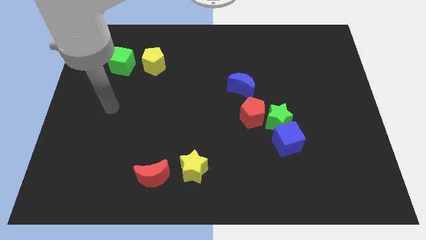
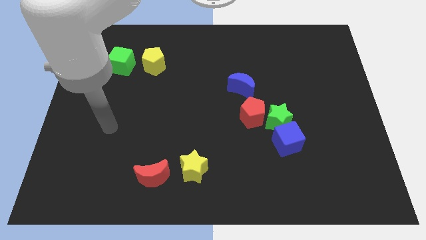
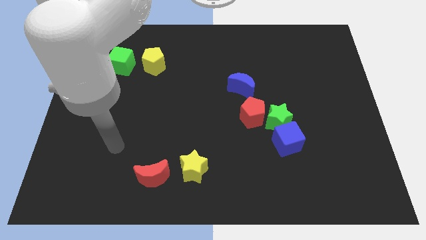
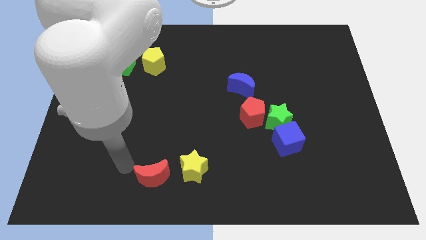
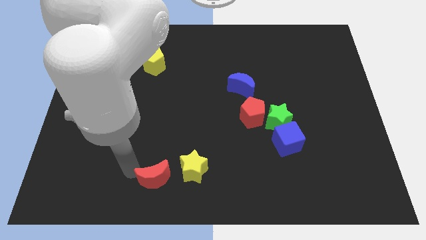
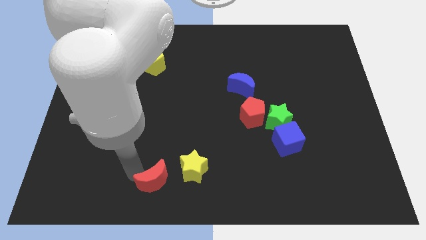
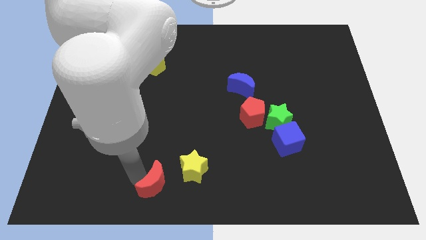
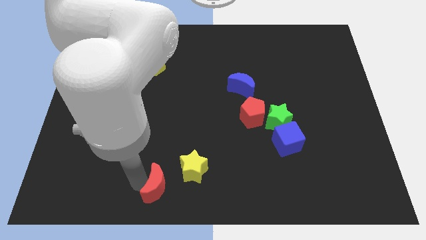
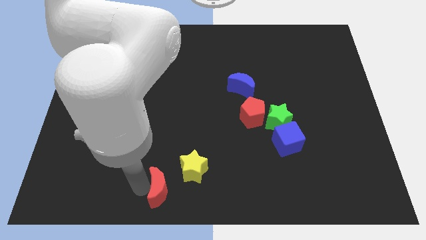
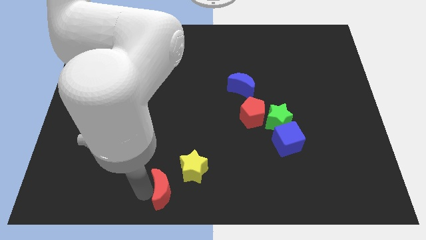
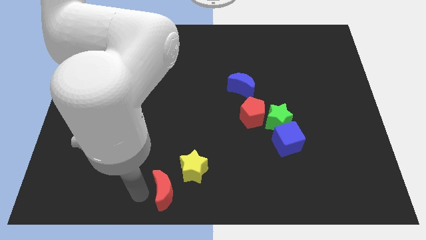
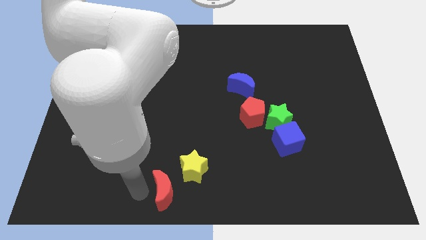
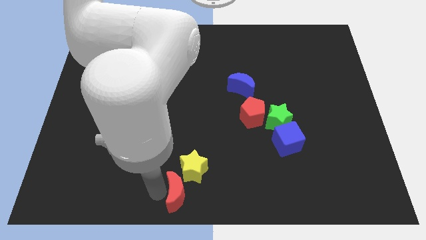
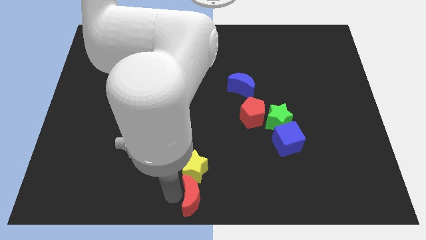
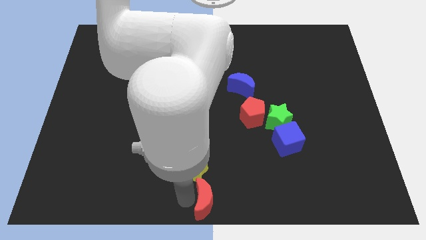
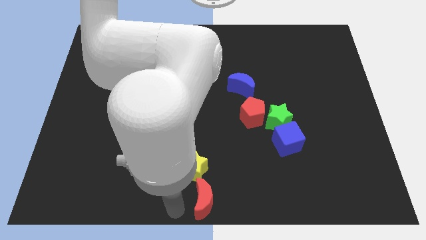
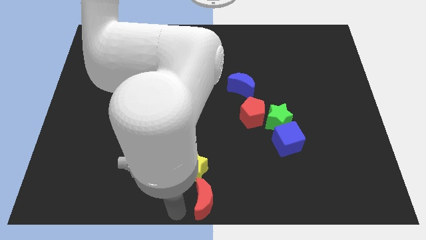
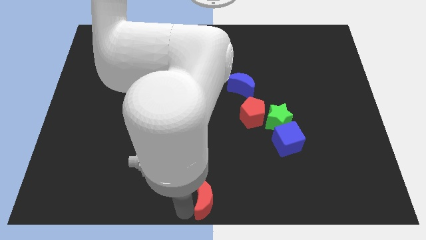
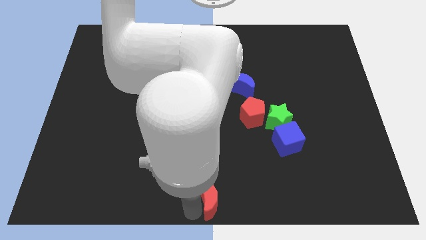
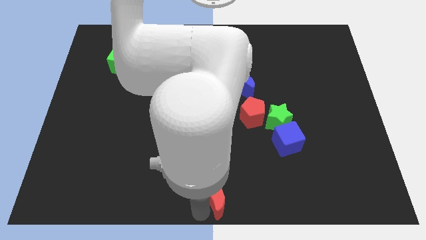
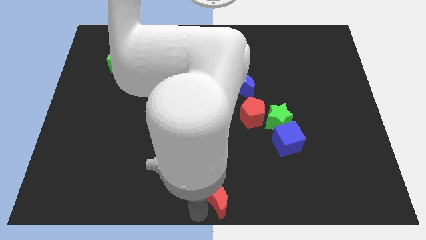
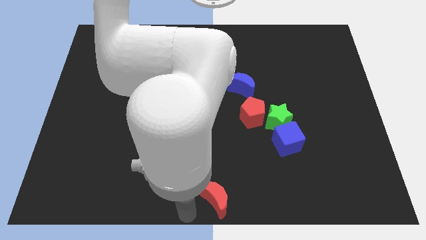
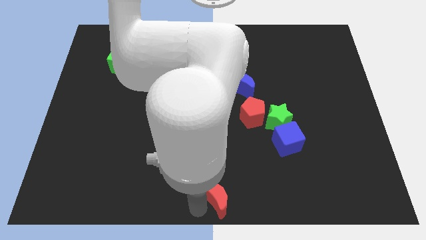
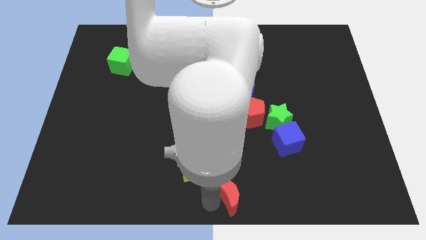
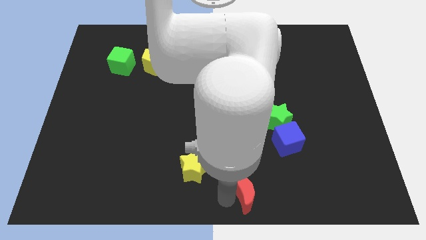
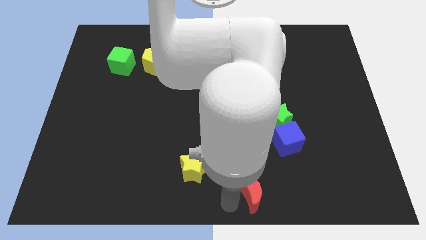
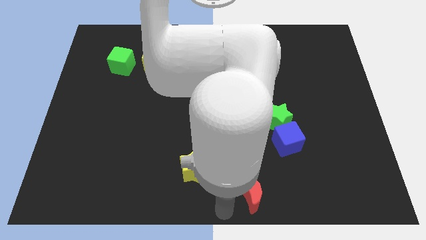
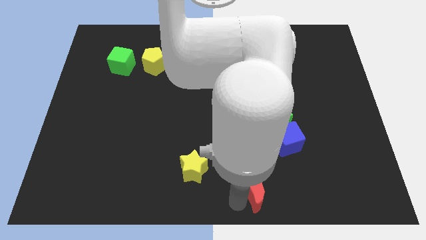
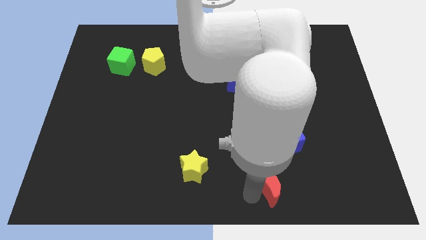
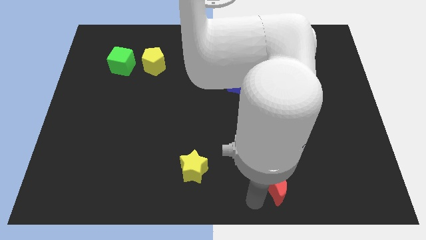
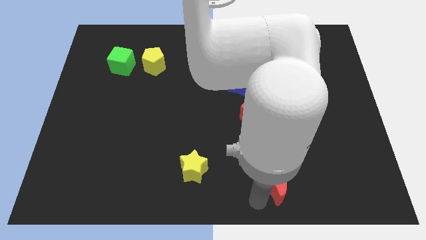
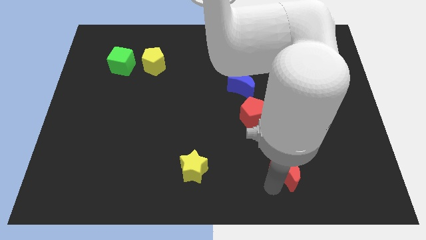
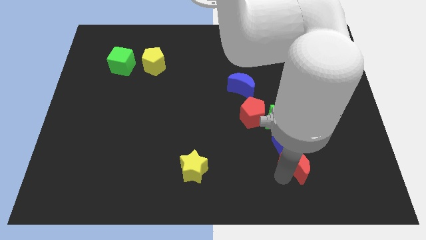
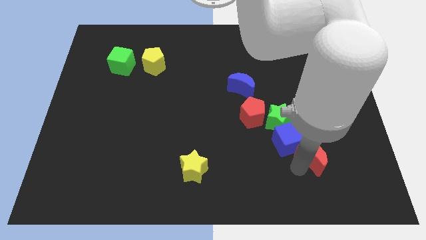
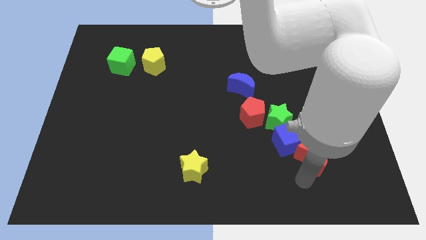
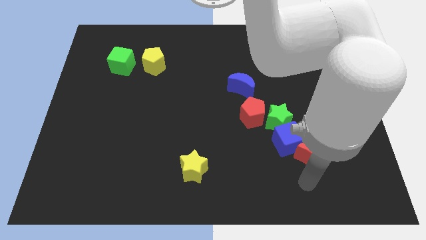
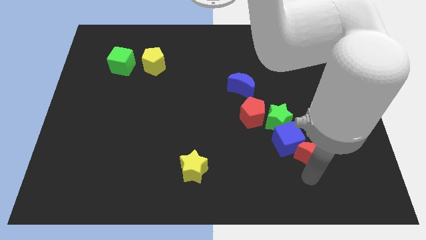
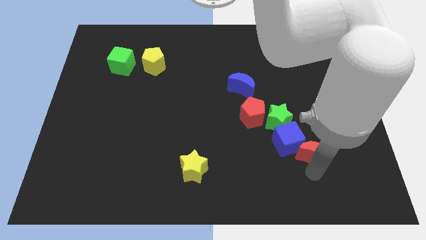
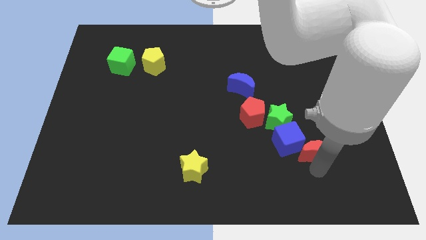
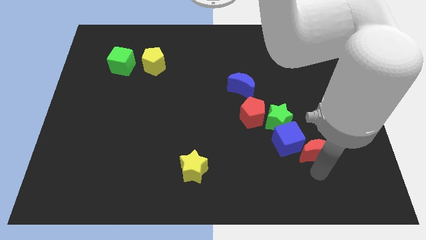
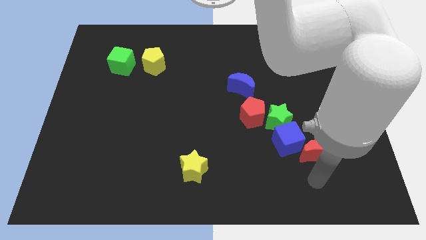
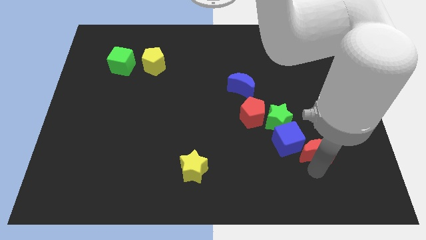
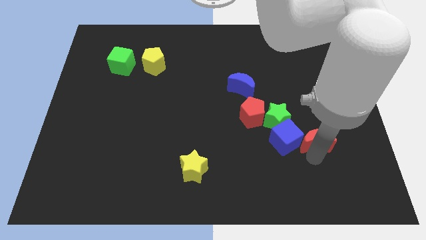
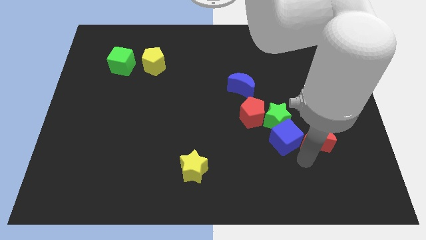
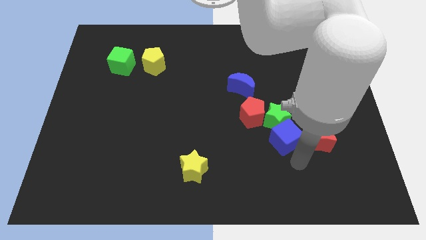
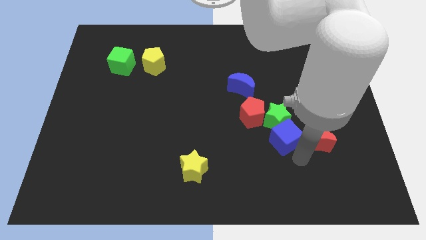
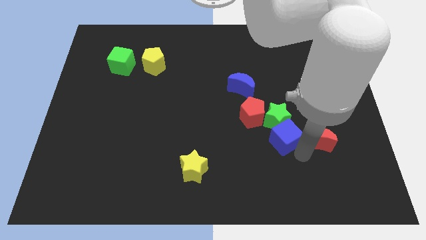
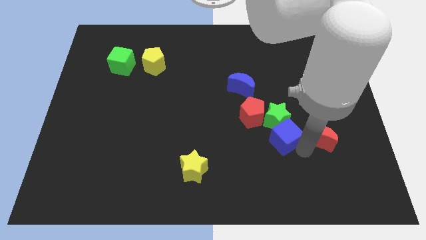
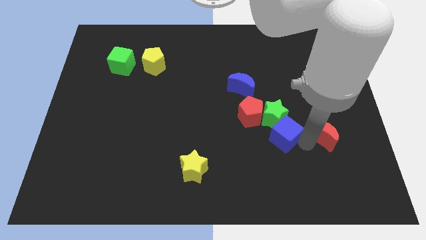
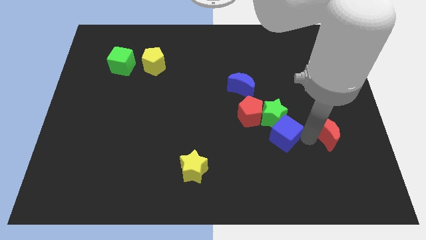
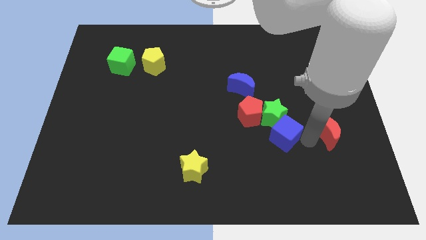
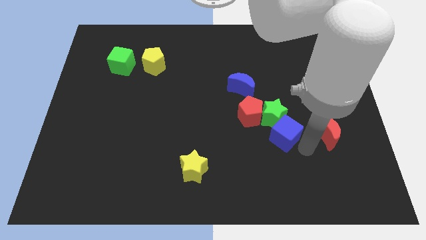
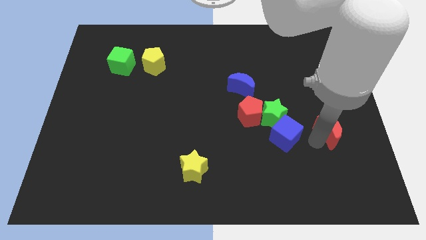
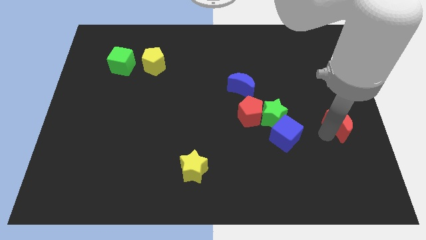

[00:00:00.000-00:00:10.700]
put the red moon to the right side
